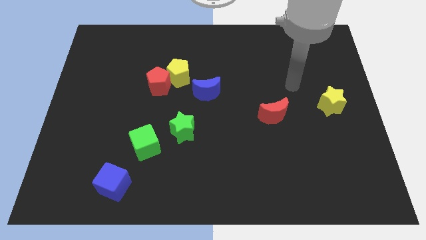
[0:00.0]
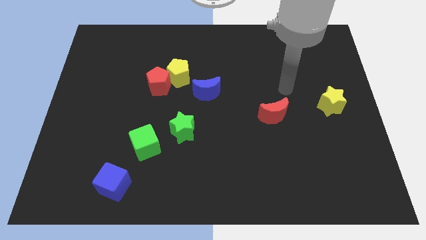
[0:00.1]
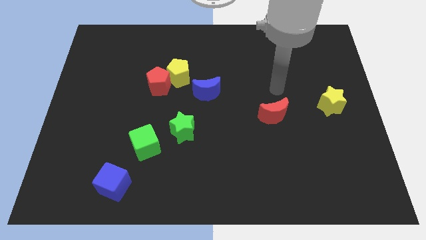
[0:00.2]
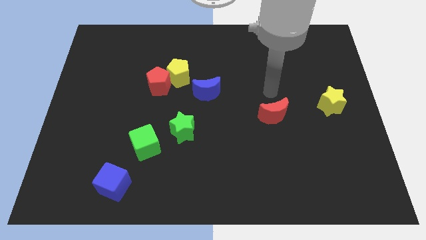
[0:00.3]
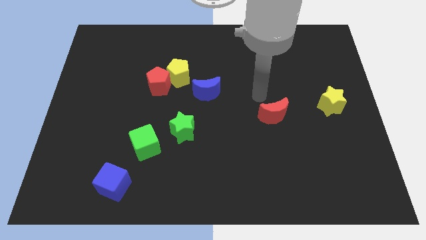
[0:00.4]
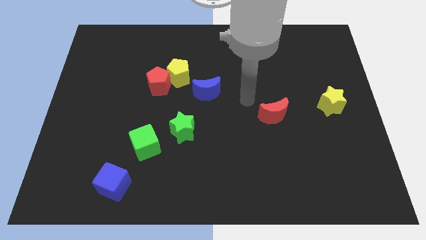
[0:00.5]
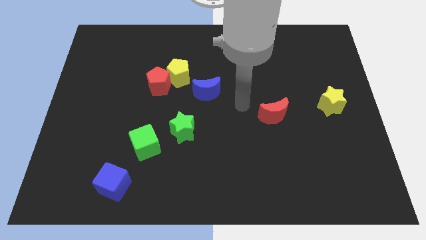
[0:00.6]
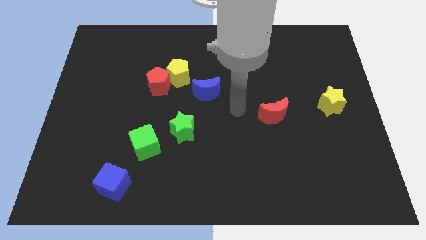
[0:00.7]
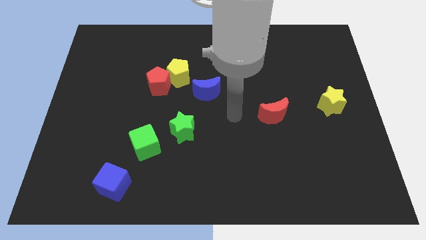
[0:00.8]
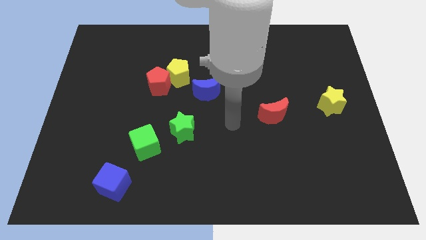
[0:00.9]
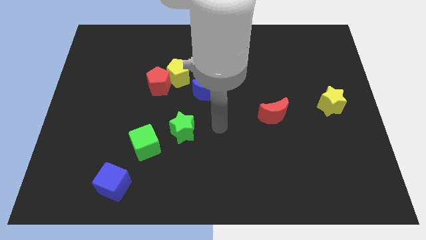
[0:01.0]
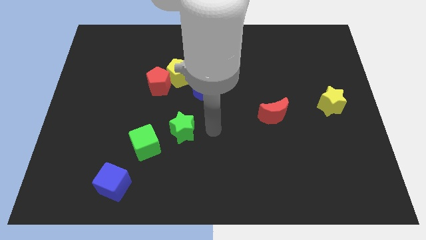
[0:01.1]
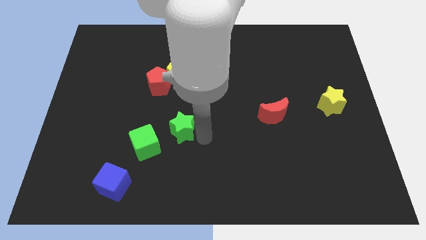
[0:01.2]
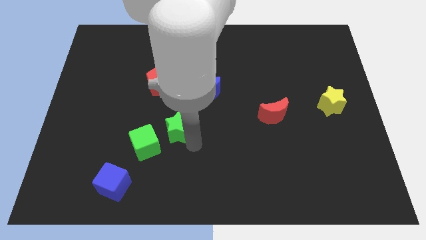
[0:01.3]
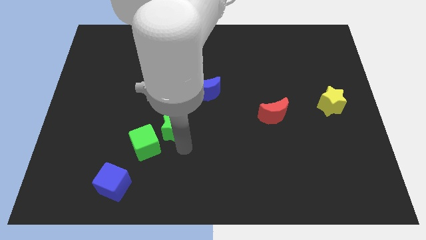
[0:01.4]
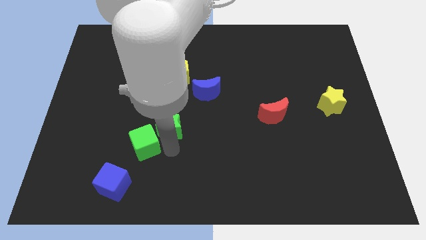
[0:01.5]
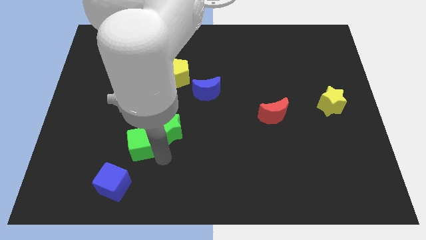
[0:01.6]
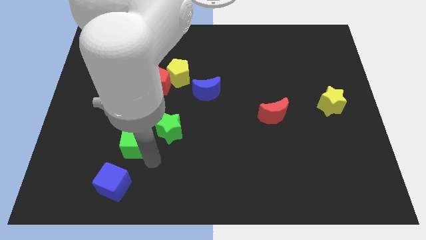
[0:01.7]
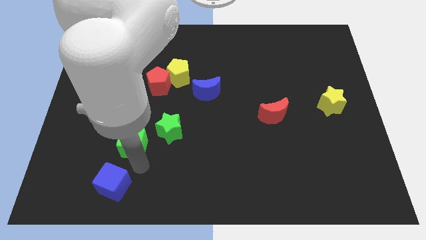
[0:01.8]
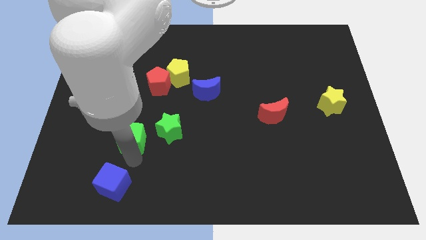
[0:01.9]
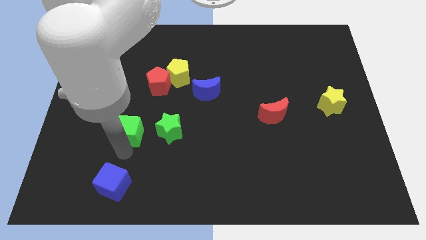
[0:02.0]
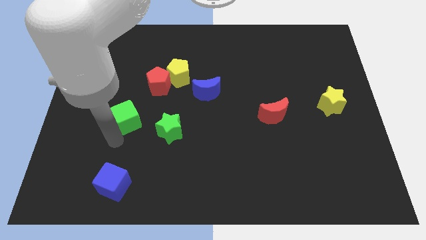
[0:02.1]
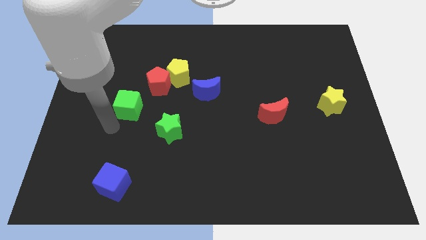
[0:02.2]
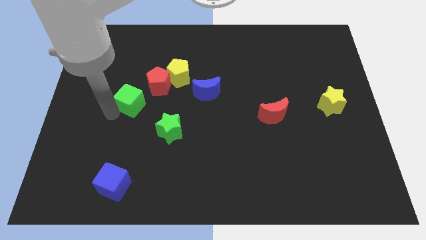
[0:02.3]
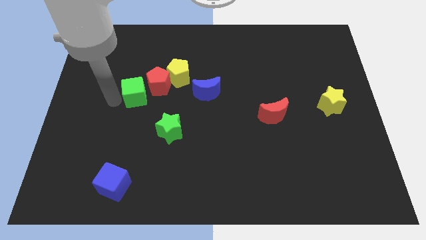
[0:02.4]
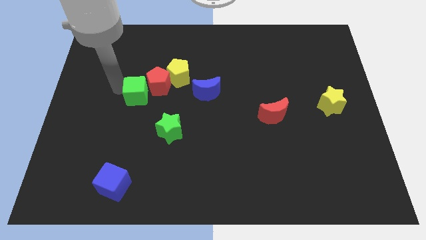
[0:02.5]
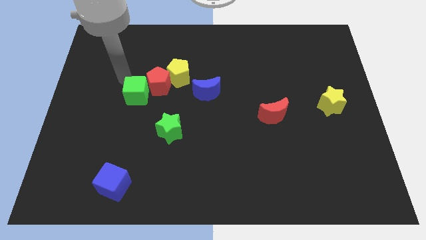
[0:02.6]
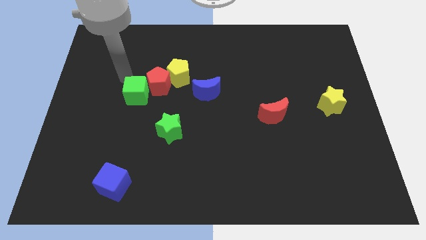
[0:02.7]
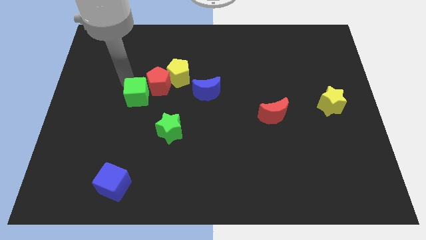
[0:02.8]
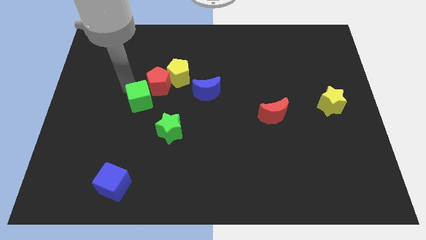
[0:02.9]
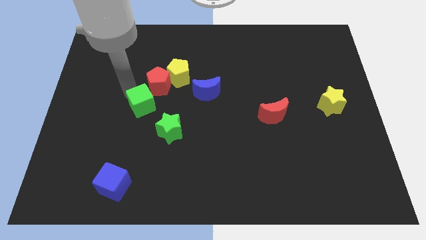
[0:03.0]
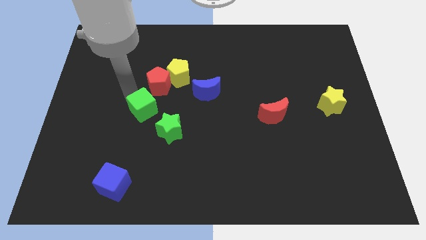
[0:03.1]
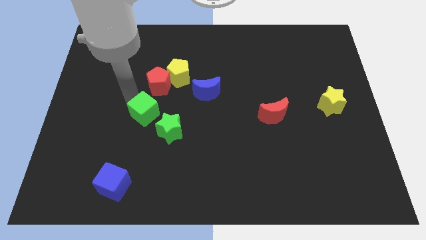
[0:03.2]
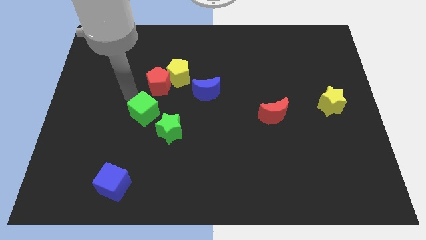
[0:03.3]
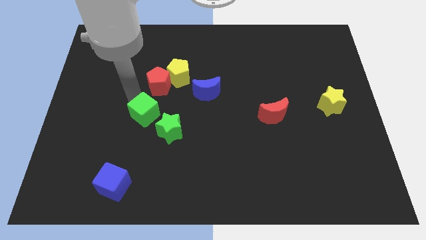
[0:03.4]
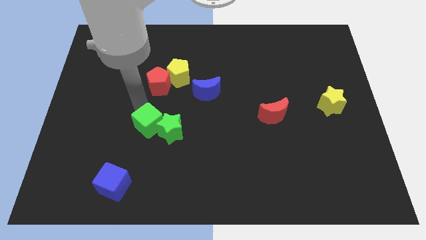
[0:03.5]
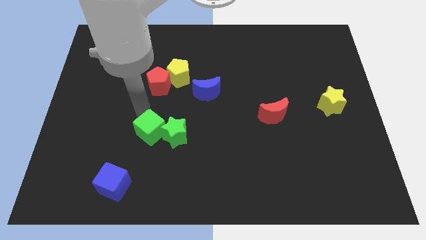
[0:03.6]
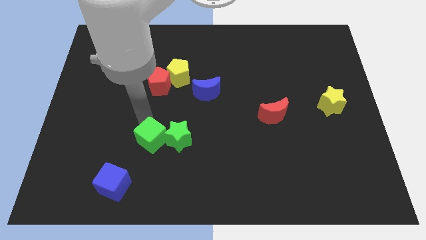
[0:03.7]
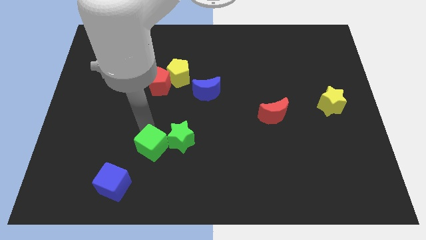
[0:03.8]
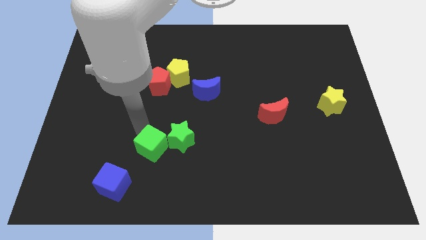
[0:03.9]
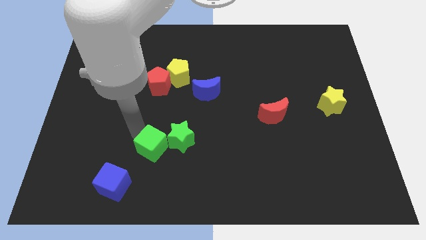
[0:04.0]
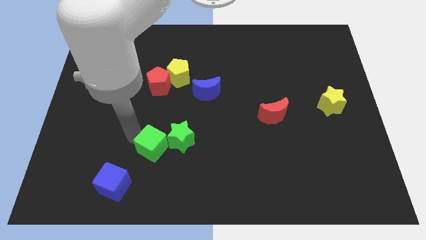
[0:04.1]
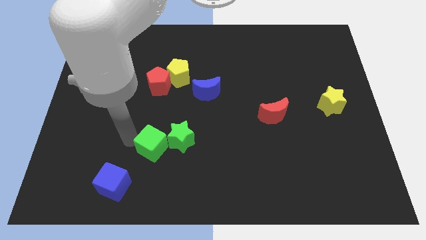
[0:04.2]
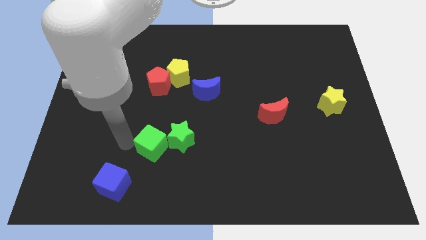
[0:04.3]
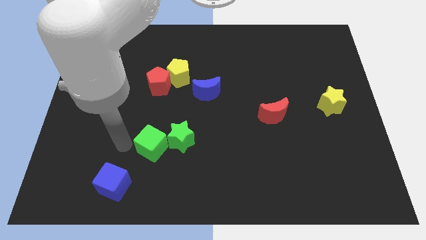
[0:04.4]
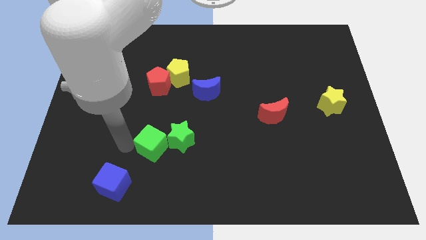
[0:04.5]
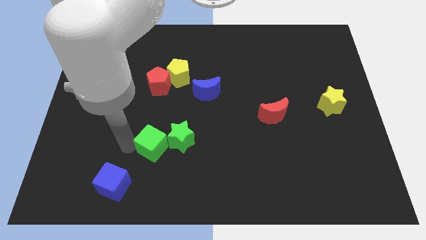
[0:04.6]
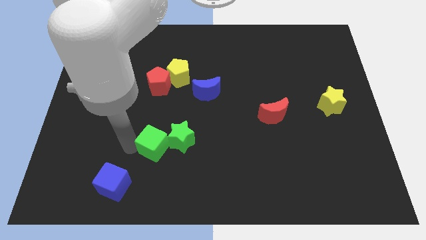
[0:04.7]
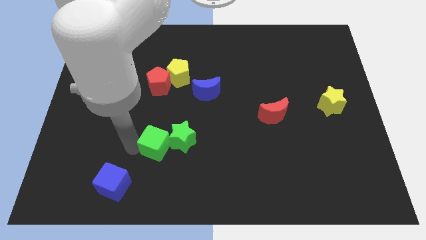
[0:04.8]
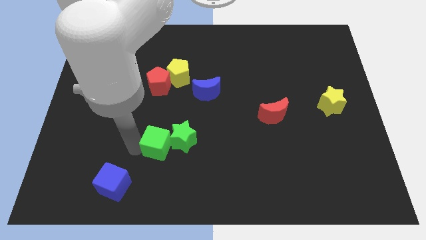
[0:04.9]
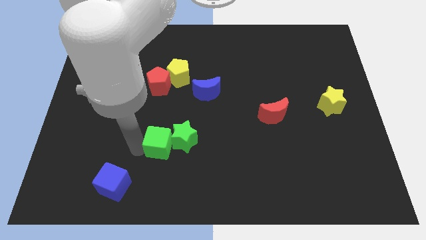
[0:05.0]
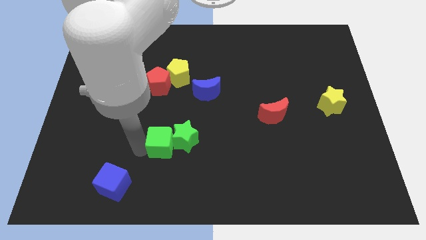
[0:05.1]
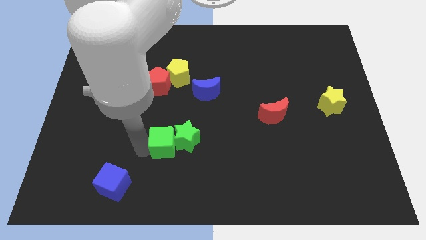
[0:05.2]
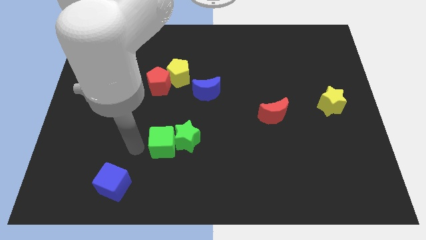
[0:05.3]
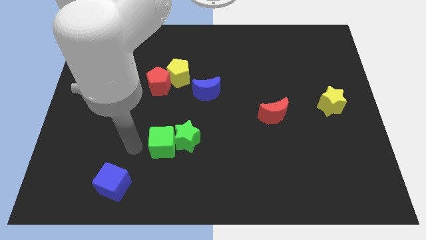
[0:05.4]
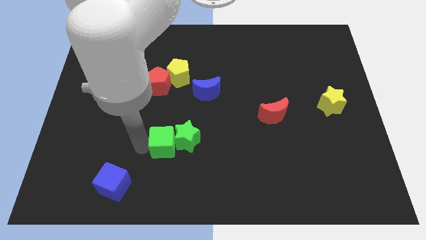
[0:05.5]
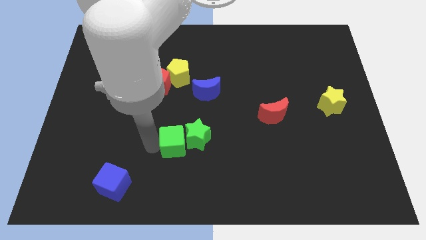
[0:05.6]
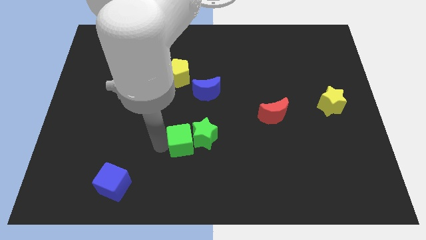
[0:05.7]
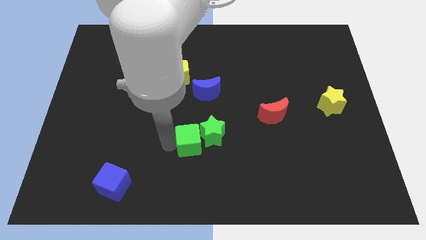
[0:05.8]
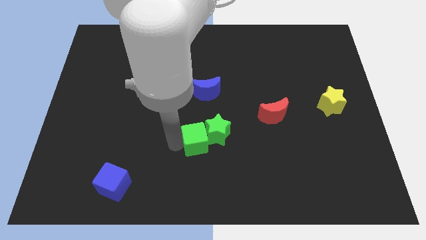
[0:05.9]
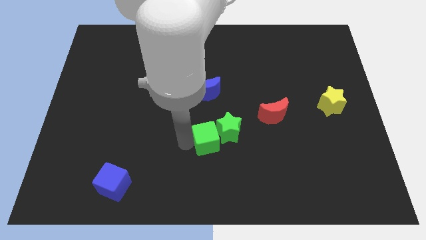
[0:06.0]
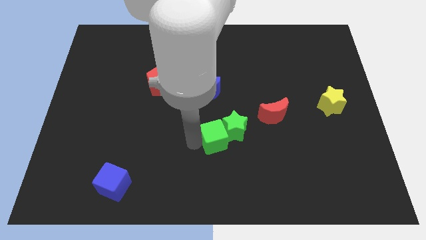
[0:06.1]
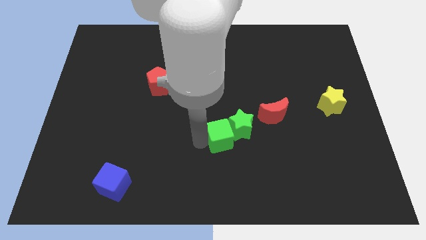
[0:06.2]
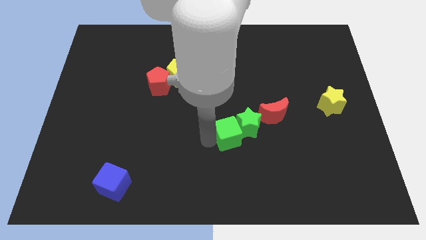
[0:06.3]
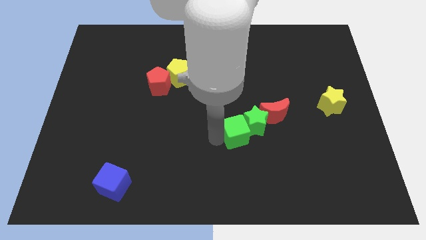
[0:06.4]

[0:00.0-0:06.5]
put the green cube diagonally down and to the left of the red moon
